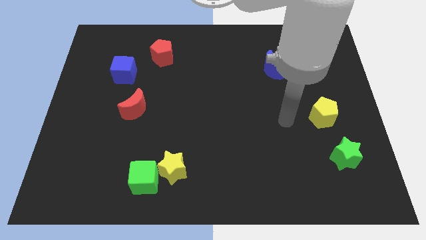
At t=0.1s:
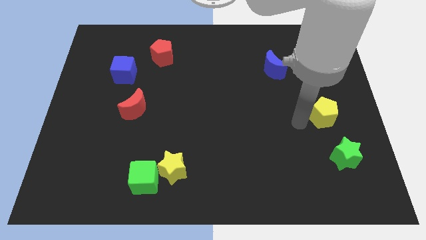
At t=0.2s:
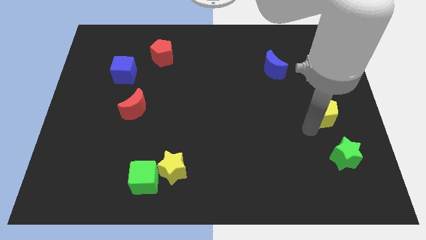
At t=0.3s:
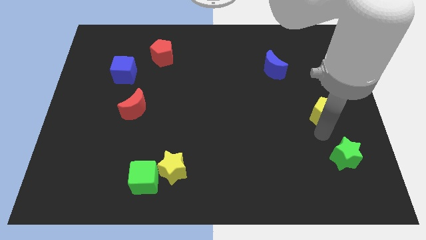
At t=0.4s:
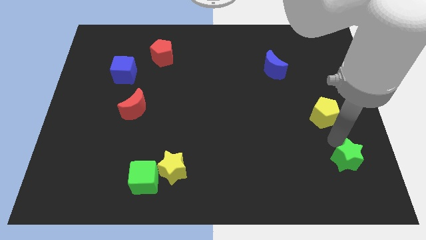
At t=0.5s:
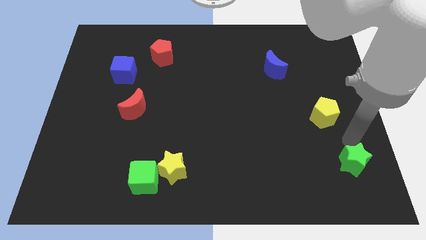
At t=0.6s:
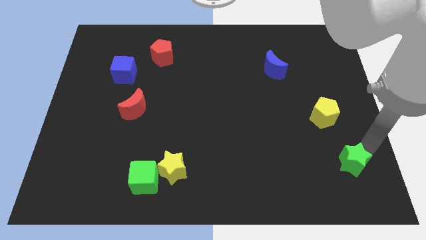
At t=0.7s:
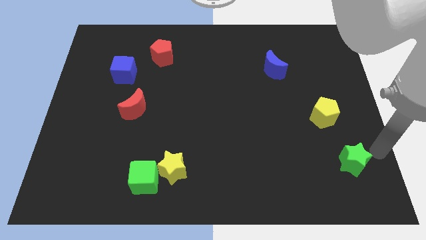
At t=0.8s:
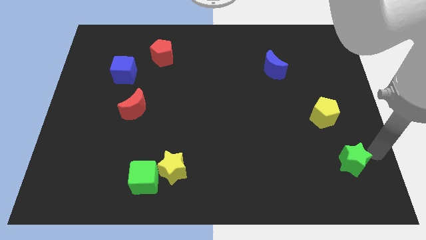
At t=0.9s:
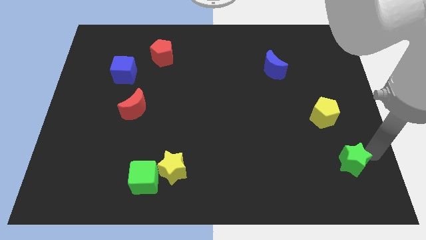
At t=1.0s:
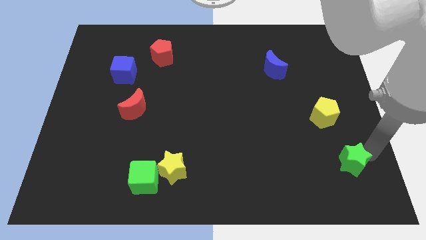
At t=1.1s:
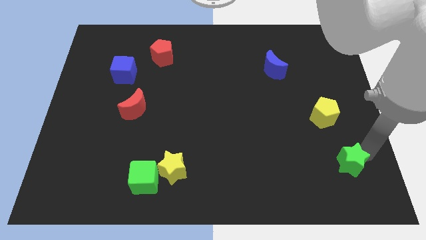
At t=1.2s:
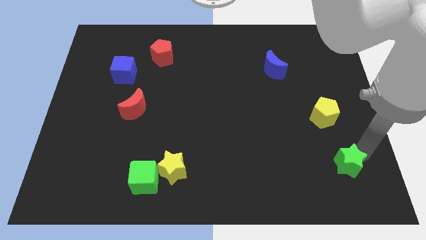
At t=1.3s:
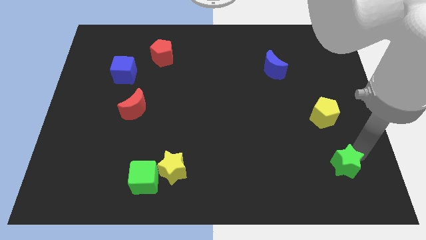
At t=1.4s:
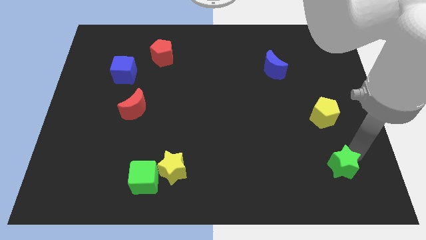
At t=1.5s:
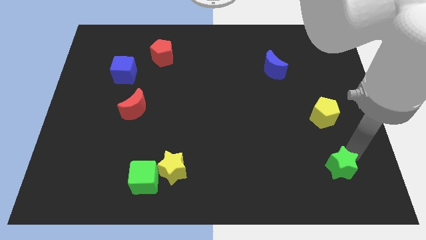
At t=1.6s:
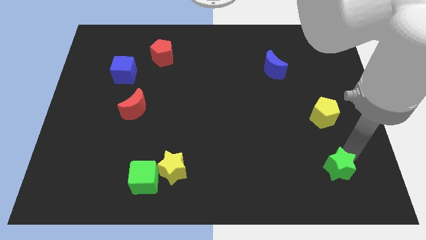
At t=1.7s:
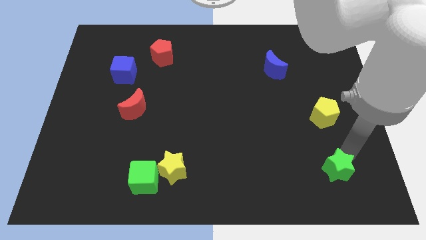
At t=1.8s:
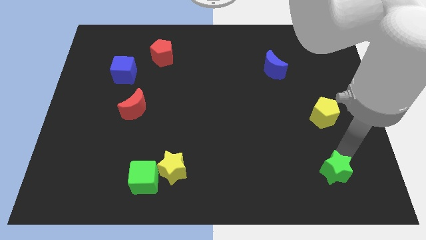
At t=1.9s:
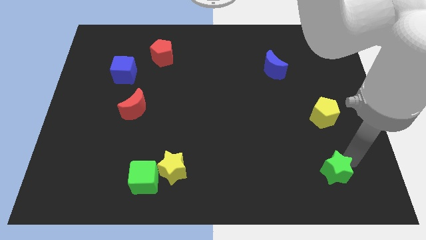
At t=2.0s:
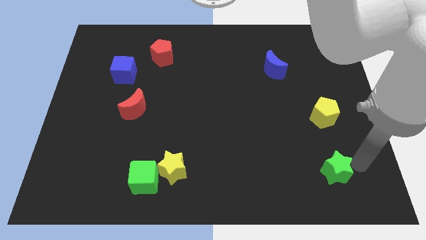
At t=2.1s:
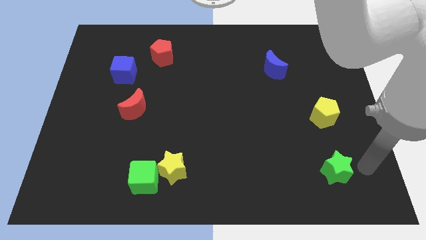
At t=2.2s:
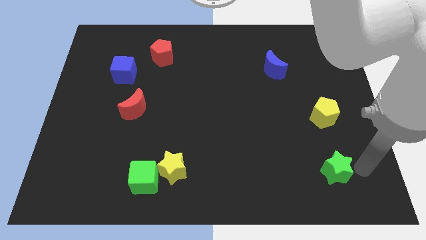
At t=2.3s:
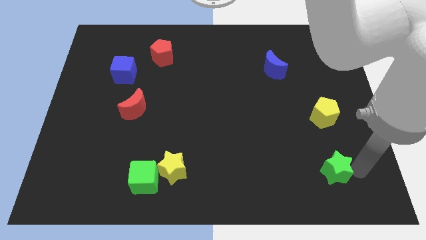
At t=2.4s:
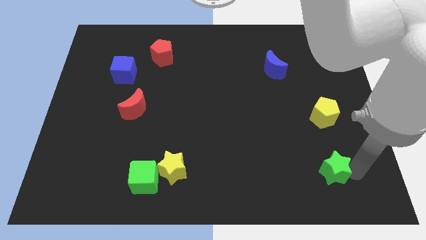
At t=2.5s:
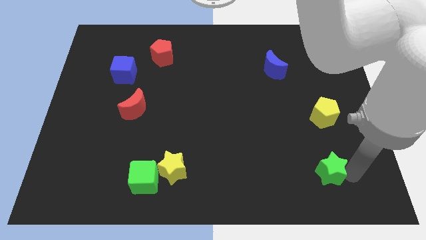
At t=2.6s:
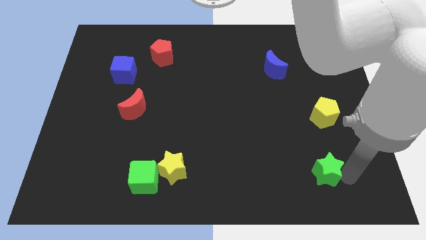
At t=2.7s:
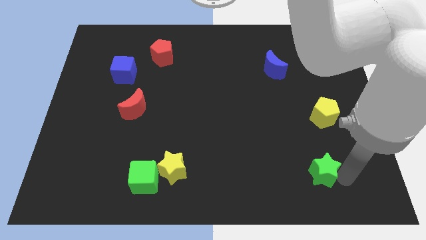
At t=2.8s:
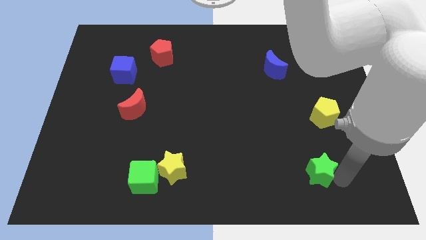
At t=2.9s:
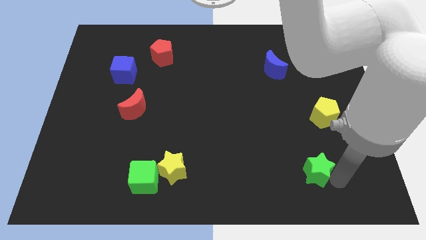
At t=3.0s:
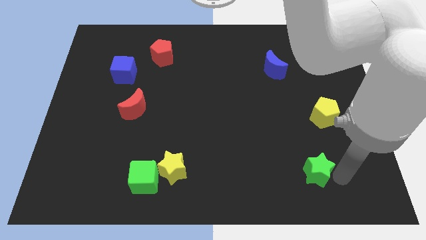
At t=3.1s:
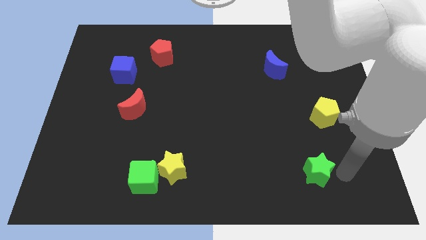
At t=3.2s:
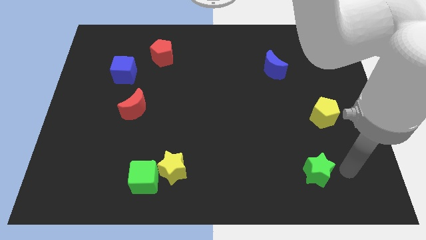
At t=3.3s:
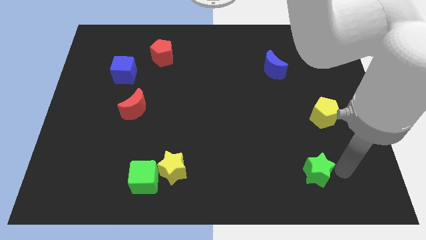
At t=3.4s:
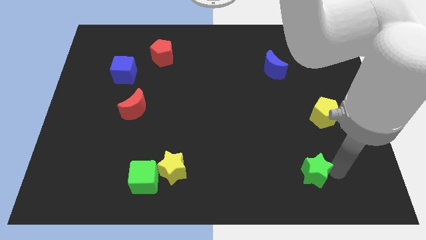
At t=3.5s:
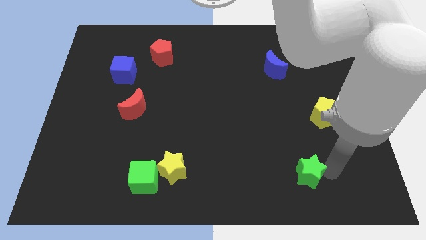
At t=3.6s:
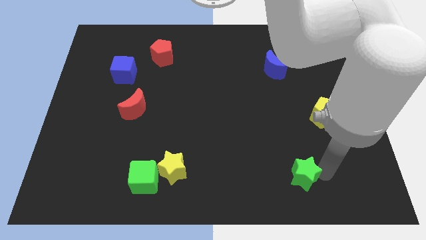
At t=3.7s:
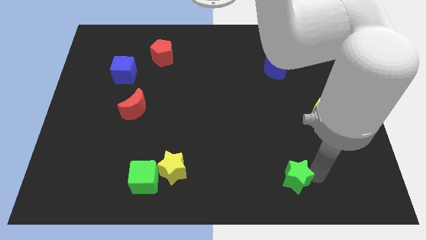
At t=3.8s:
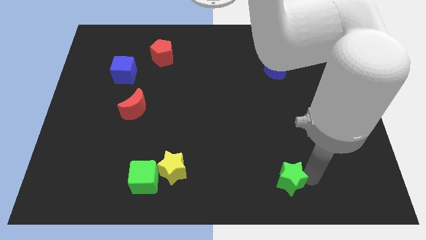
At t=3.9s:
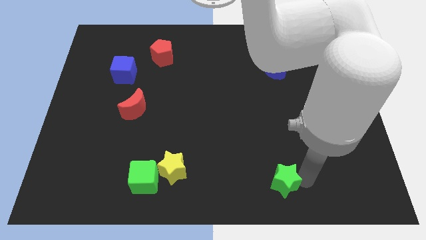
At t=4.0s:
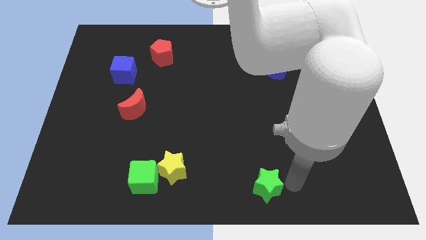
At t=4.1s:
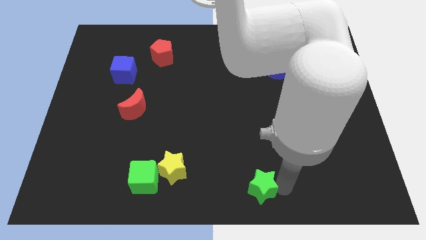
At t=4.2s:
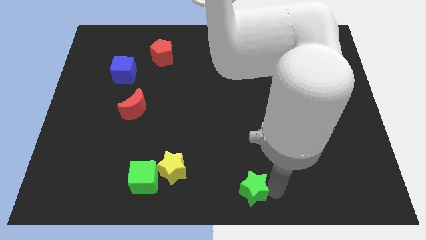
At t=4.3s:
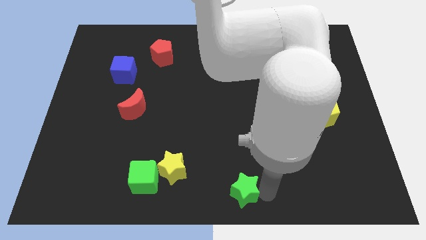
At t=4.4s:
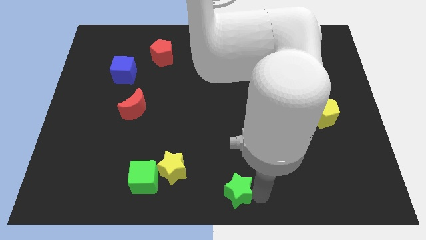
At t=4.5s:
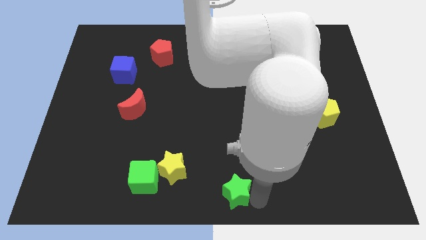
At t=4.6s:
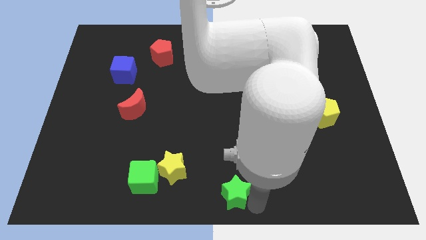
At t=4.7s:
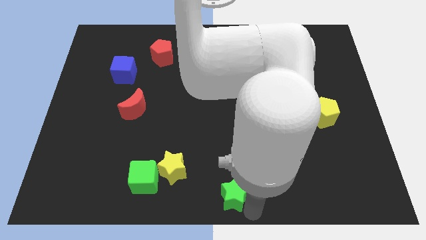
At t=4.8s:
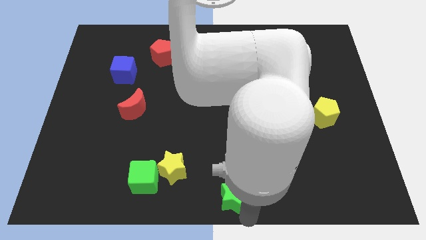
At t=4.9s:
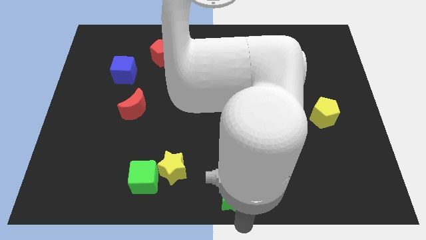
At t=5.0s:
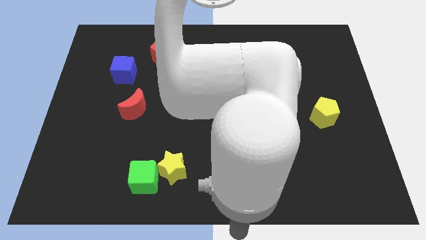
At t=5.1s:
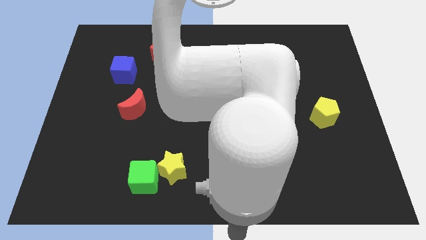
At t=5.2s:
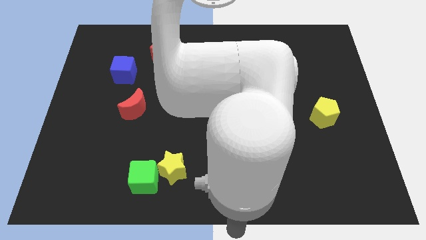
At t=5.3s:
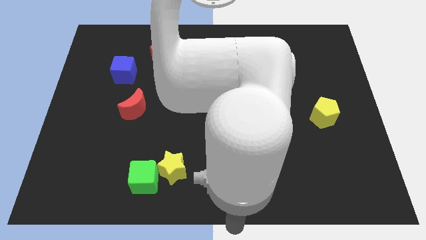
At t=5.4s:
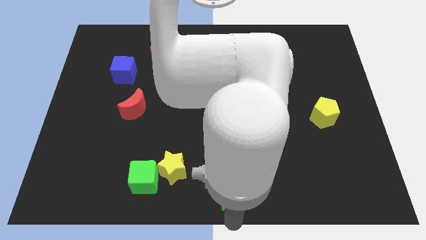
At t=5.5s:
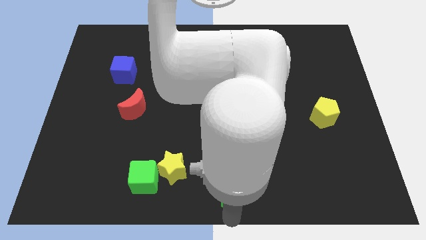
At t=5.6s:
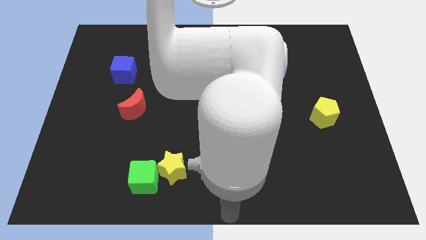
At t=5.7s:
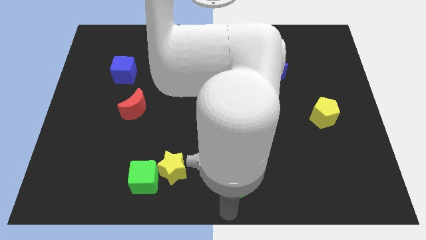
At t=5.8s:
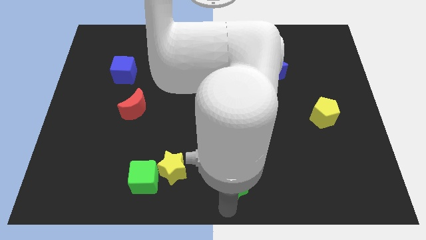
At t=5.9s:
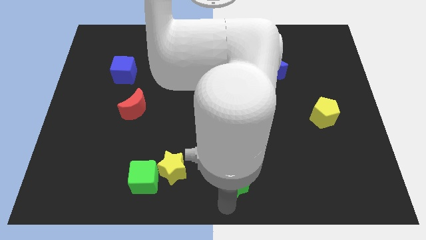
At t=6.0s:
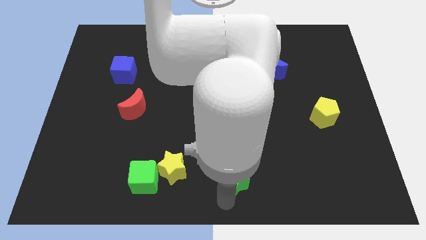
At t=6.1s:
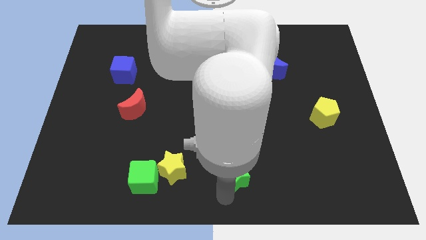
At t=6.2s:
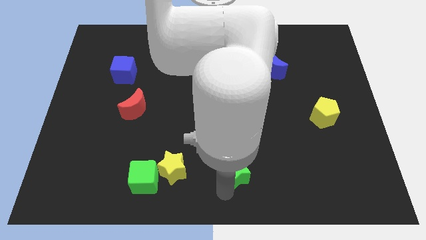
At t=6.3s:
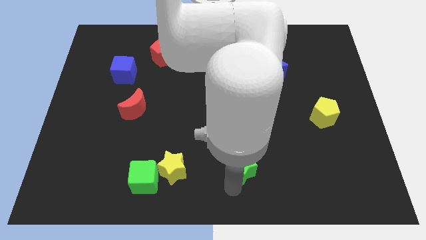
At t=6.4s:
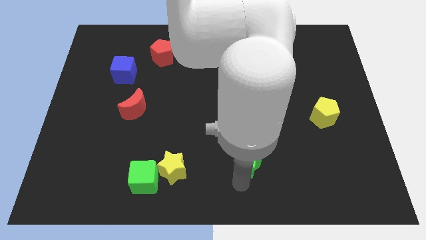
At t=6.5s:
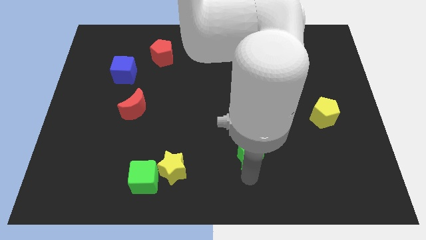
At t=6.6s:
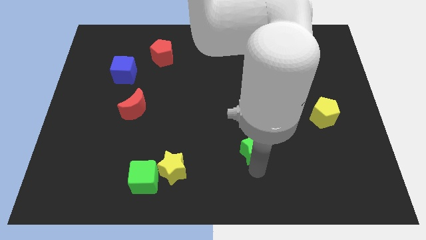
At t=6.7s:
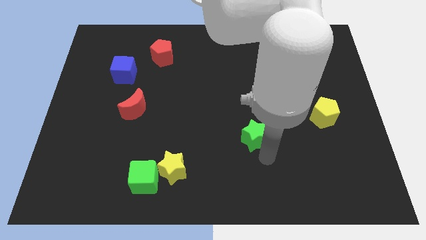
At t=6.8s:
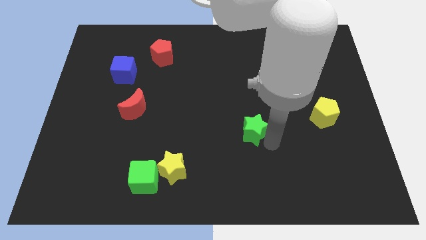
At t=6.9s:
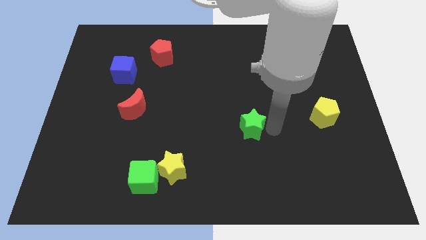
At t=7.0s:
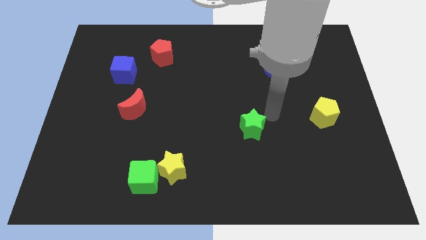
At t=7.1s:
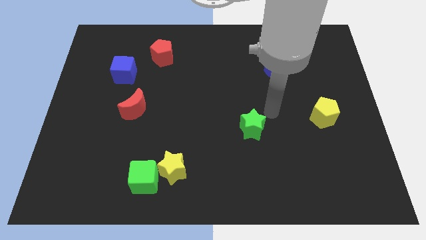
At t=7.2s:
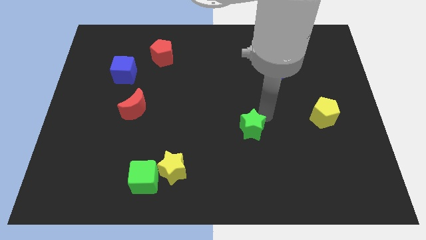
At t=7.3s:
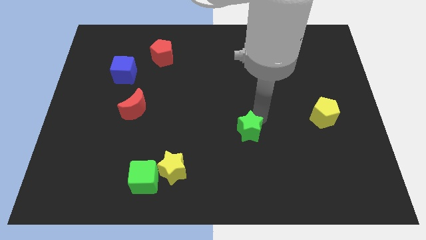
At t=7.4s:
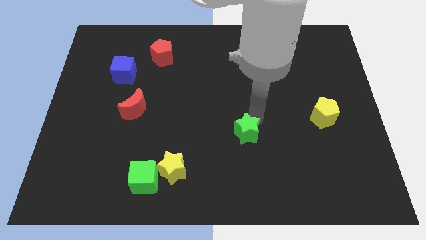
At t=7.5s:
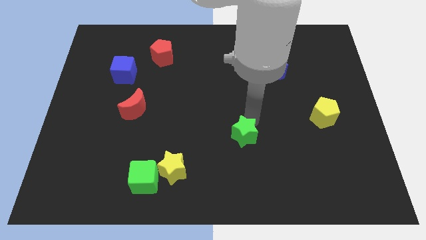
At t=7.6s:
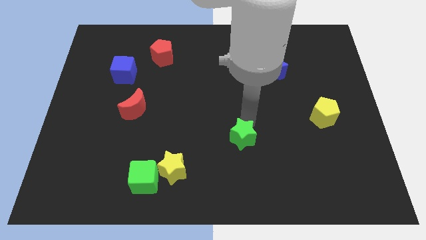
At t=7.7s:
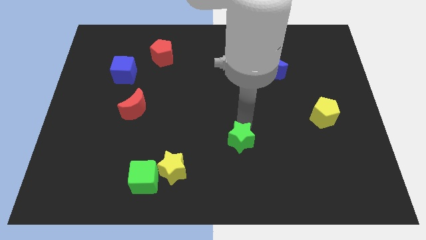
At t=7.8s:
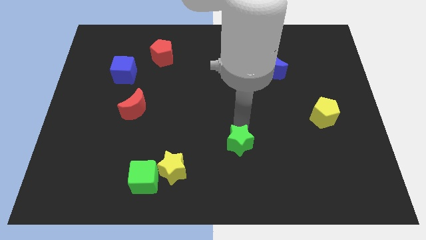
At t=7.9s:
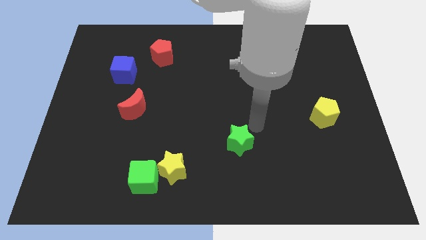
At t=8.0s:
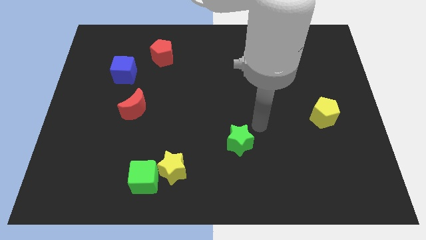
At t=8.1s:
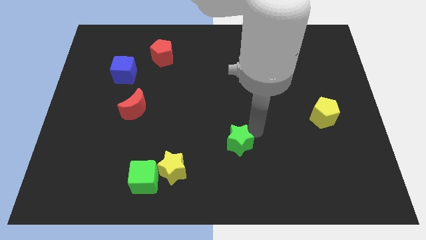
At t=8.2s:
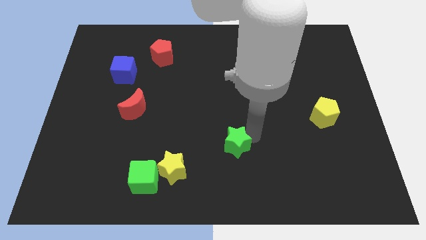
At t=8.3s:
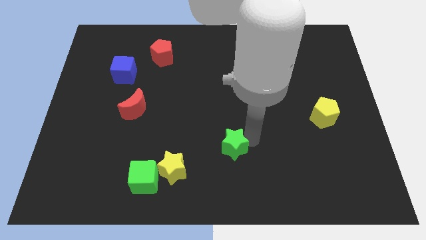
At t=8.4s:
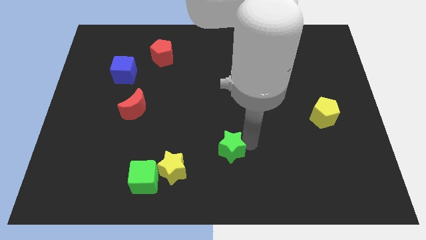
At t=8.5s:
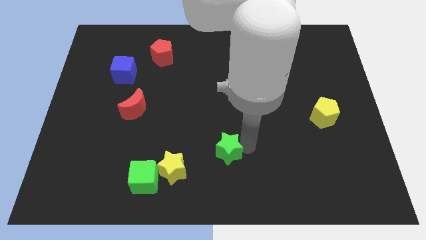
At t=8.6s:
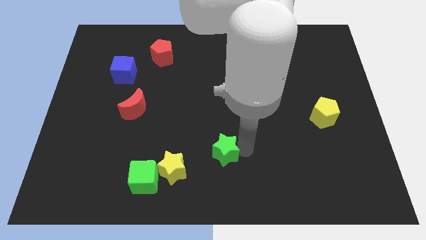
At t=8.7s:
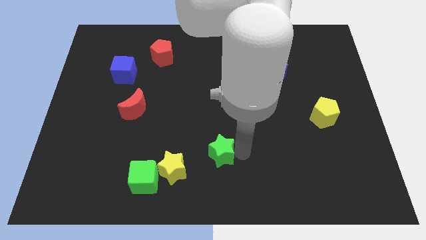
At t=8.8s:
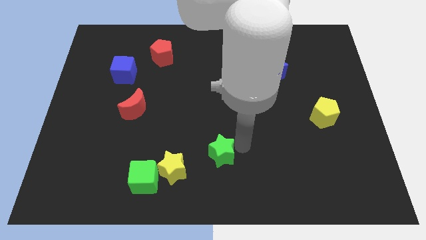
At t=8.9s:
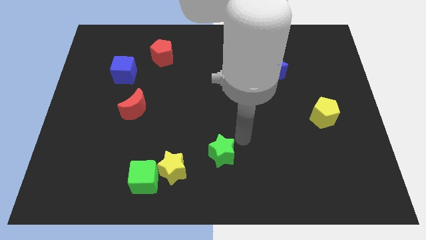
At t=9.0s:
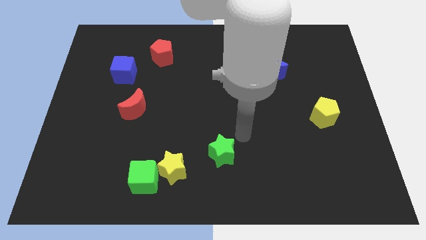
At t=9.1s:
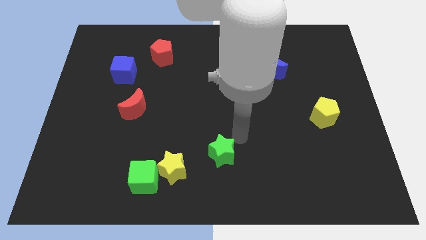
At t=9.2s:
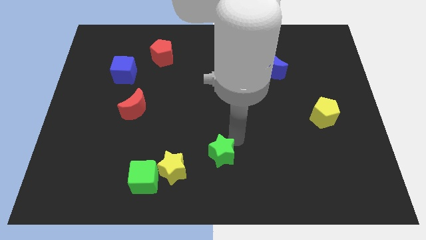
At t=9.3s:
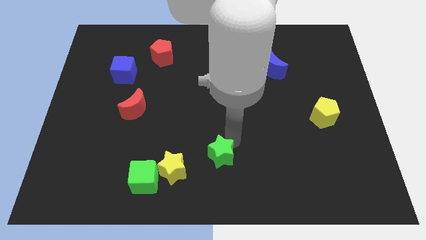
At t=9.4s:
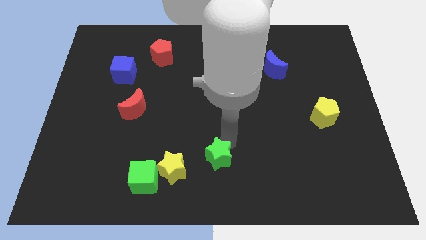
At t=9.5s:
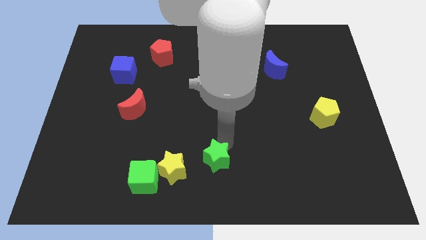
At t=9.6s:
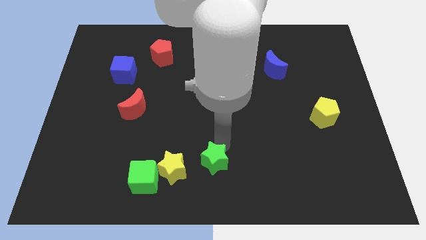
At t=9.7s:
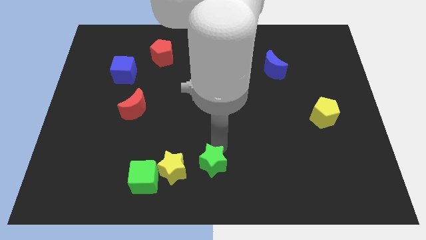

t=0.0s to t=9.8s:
move the green star just right of the green cube
